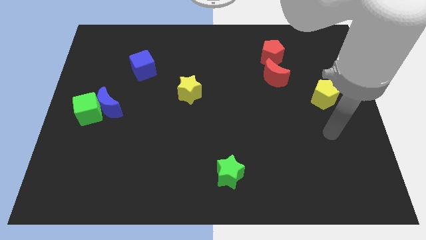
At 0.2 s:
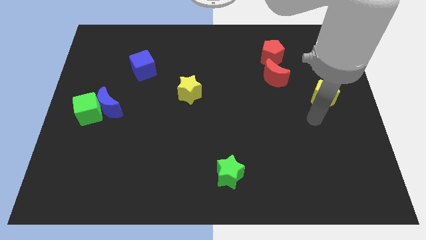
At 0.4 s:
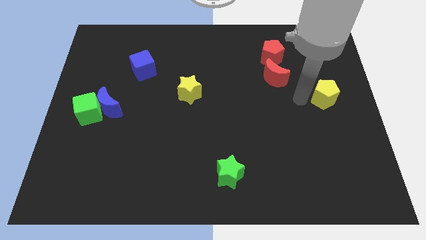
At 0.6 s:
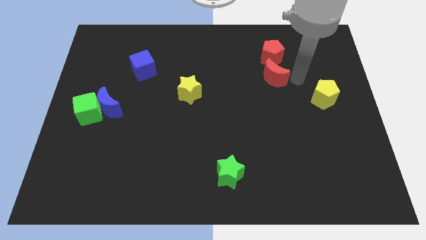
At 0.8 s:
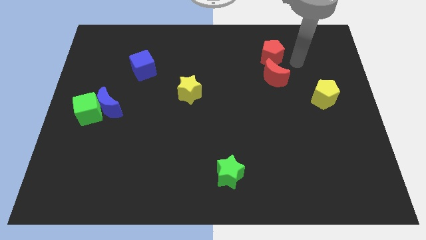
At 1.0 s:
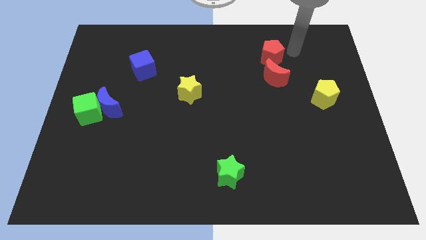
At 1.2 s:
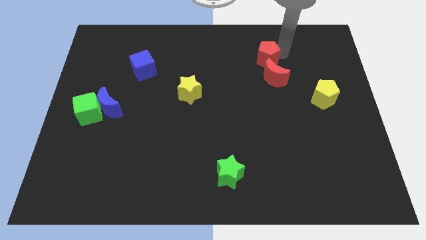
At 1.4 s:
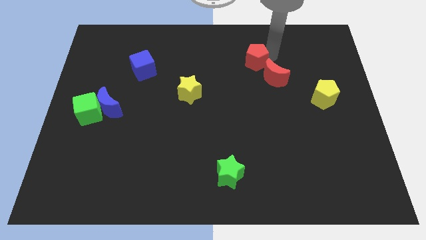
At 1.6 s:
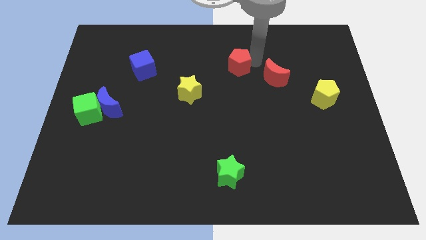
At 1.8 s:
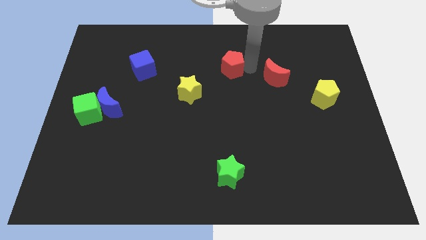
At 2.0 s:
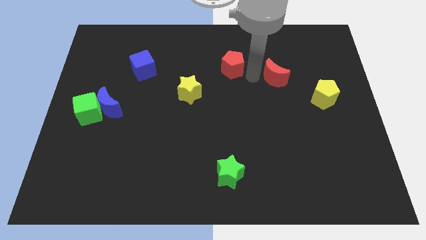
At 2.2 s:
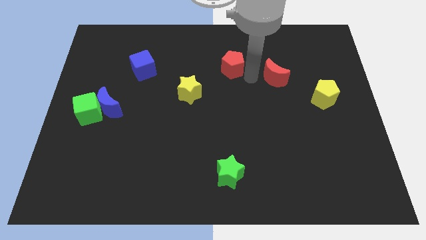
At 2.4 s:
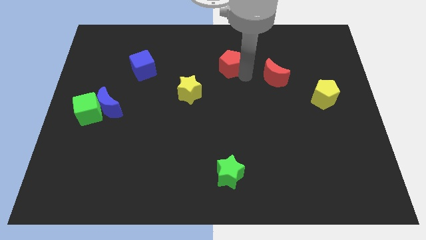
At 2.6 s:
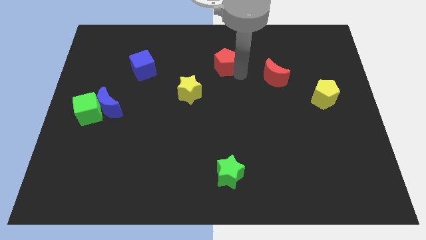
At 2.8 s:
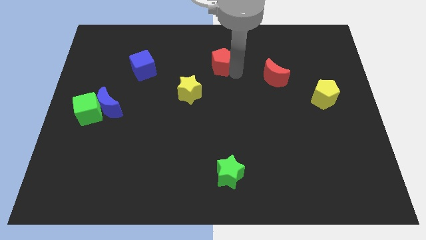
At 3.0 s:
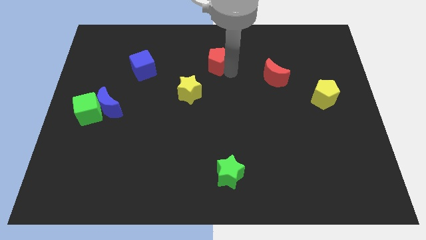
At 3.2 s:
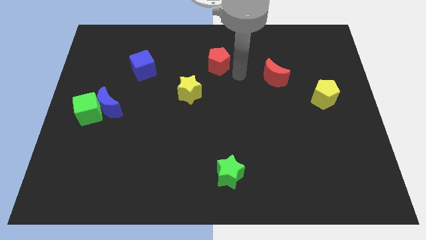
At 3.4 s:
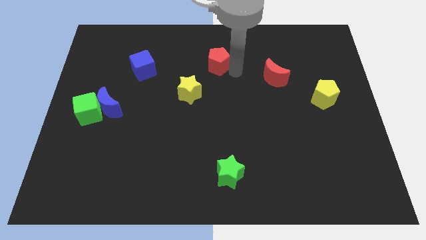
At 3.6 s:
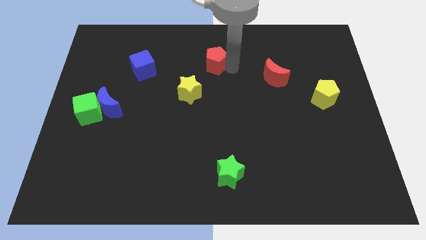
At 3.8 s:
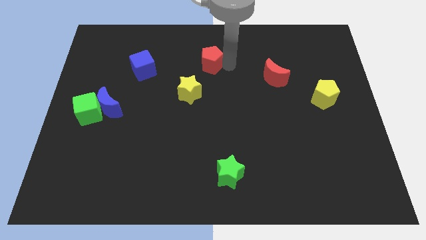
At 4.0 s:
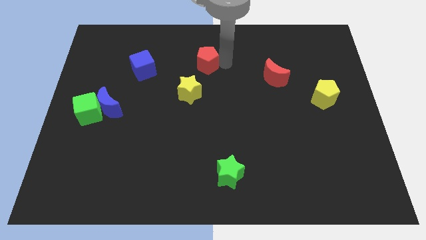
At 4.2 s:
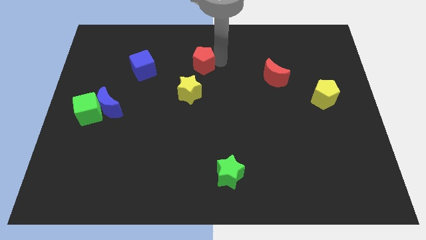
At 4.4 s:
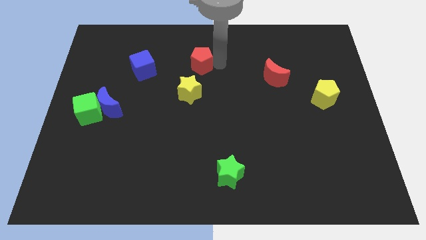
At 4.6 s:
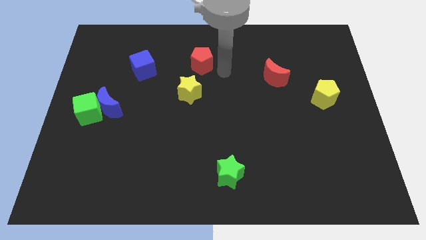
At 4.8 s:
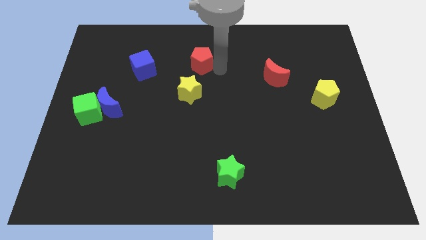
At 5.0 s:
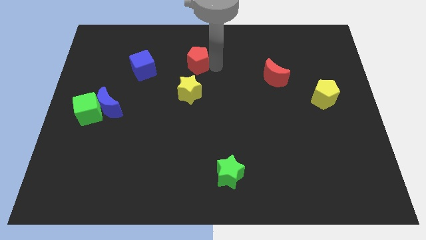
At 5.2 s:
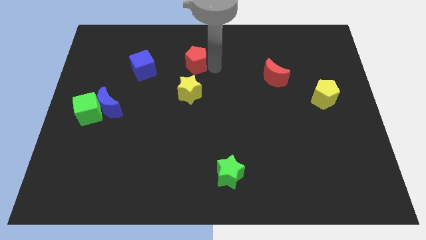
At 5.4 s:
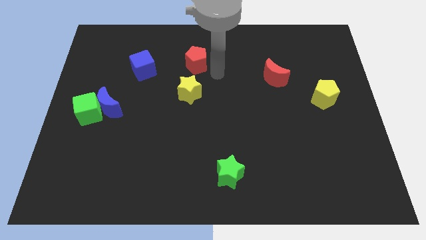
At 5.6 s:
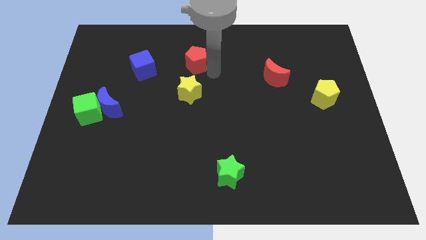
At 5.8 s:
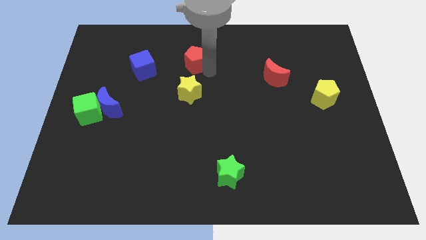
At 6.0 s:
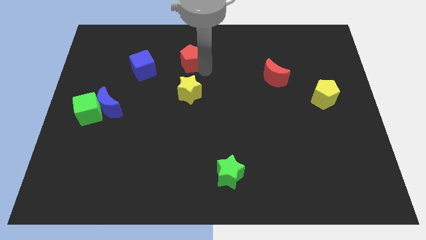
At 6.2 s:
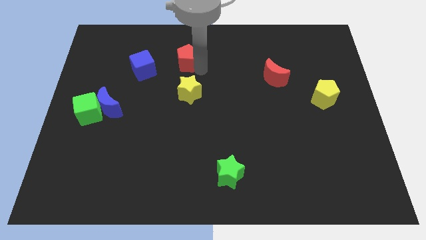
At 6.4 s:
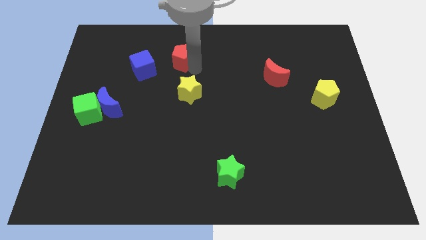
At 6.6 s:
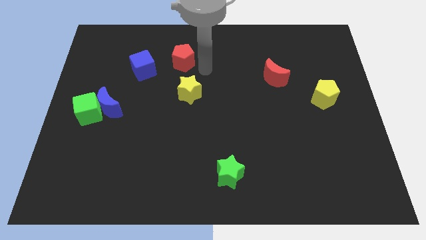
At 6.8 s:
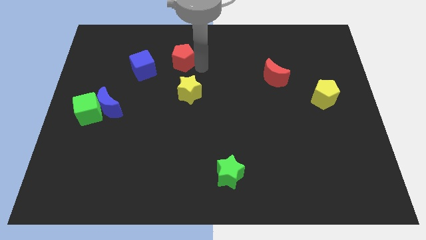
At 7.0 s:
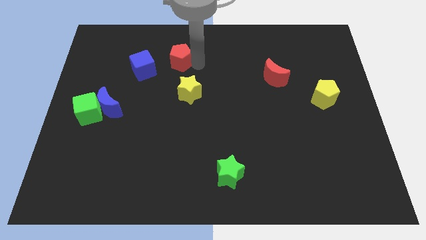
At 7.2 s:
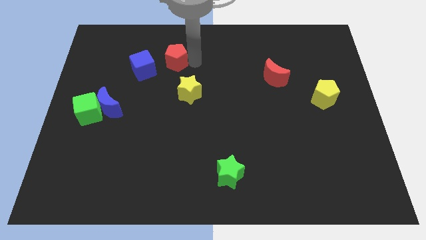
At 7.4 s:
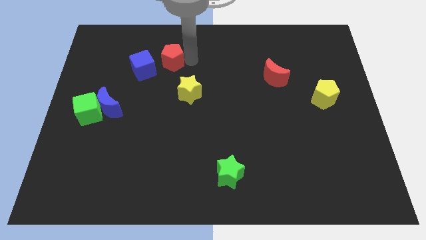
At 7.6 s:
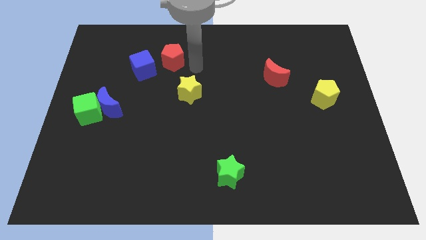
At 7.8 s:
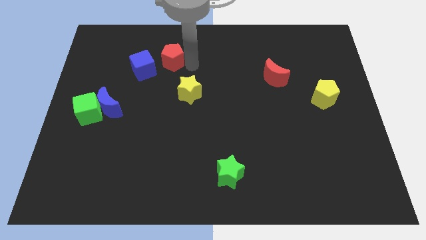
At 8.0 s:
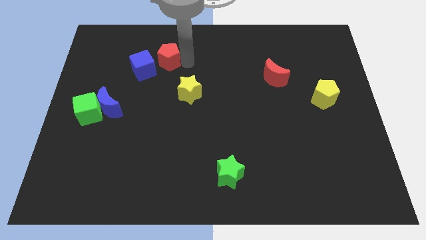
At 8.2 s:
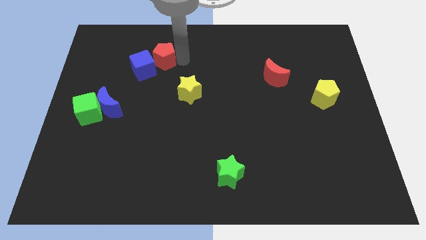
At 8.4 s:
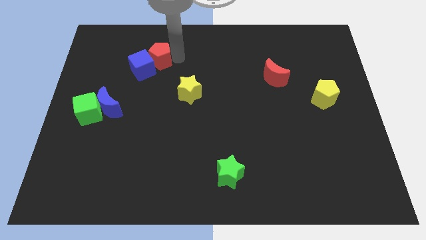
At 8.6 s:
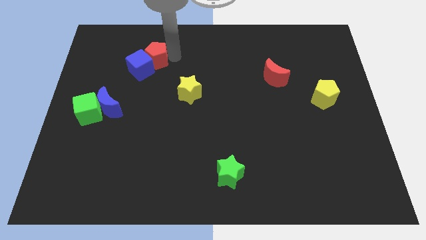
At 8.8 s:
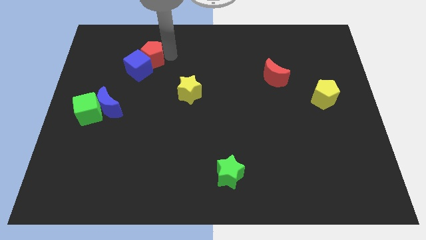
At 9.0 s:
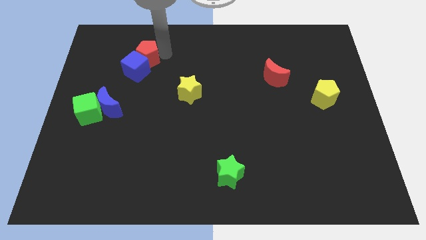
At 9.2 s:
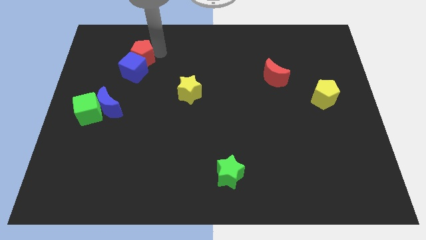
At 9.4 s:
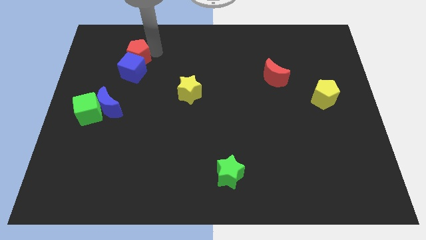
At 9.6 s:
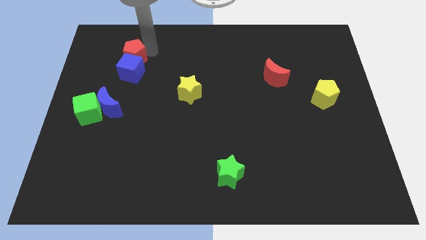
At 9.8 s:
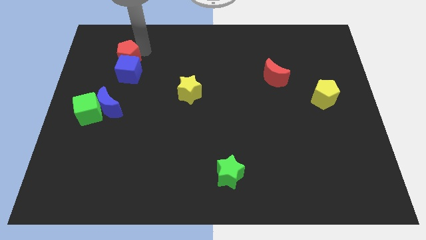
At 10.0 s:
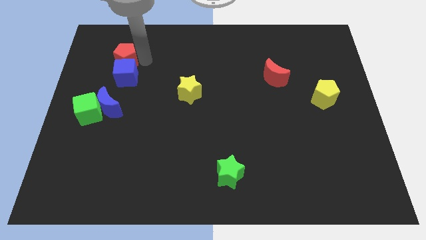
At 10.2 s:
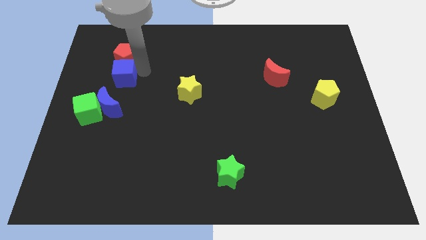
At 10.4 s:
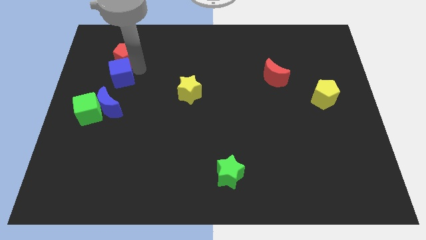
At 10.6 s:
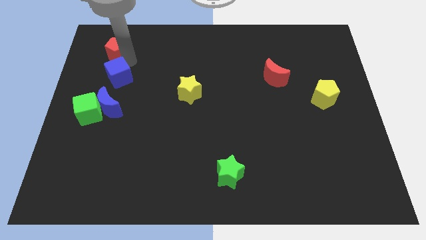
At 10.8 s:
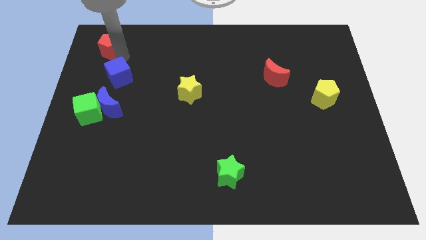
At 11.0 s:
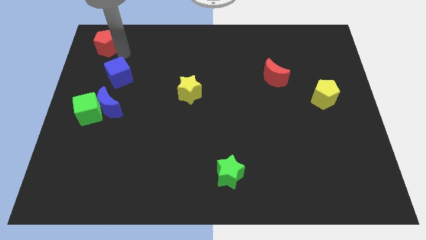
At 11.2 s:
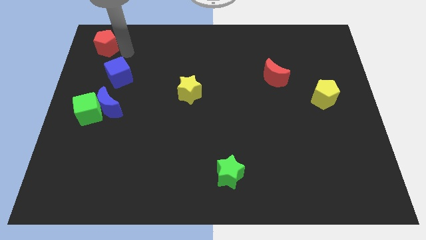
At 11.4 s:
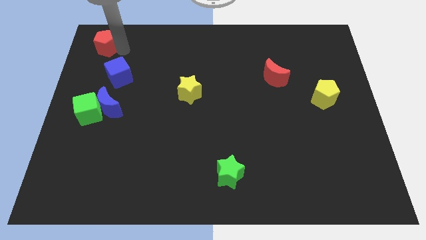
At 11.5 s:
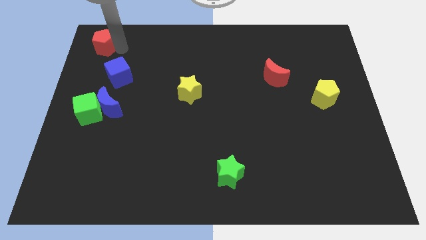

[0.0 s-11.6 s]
slide the red pentagon to the top left corner

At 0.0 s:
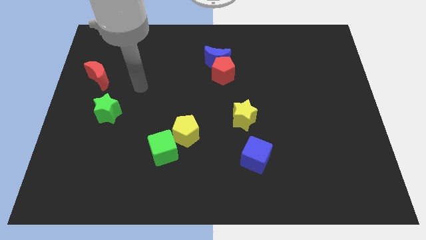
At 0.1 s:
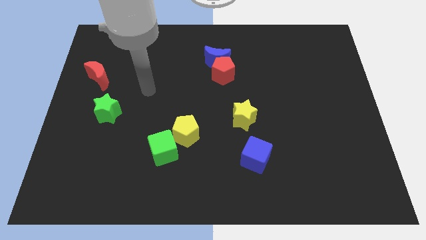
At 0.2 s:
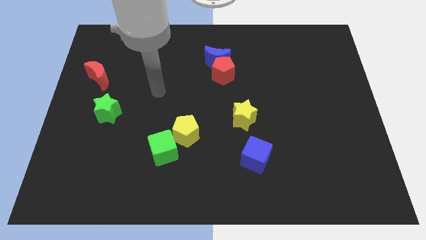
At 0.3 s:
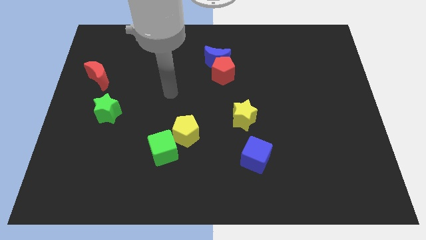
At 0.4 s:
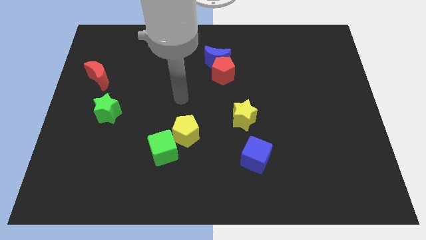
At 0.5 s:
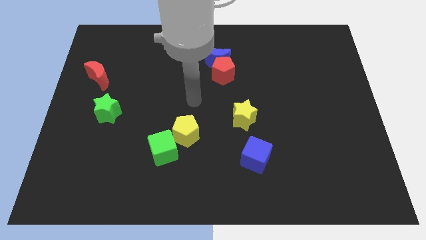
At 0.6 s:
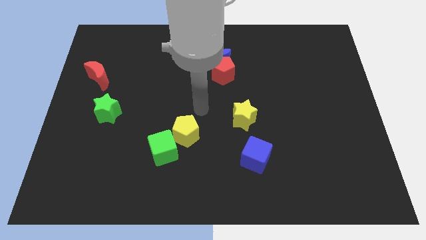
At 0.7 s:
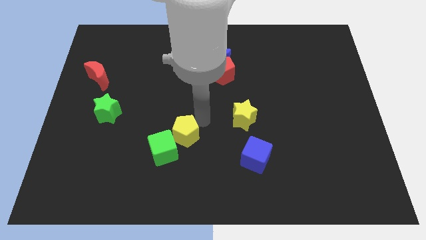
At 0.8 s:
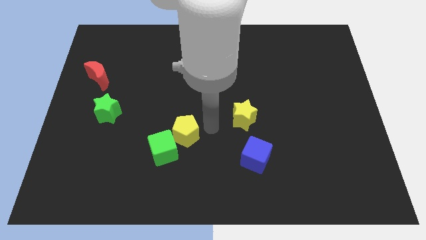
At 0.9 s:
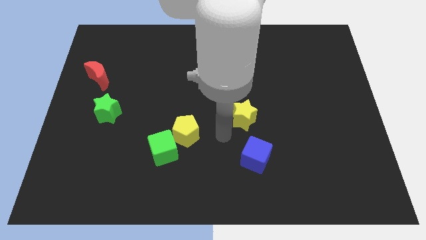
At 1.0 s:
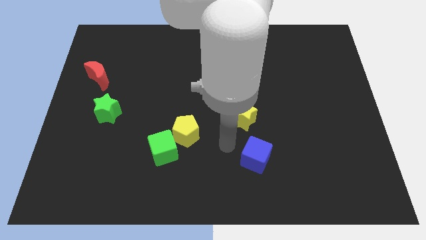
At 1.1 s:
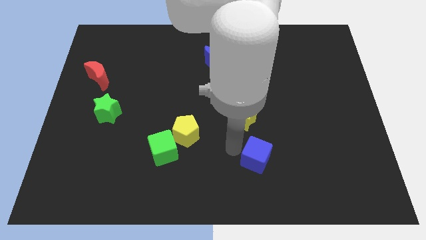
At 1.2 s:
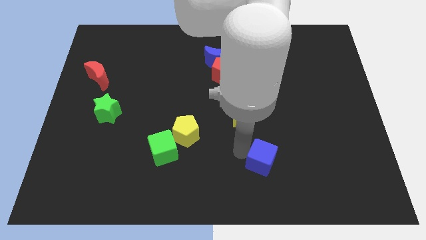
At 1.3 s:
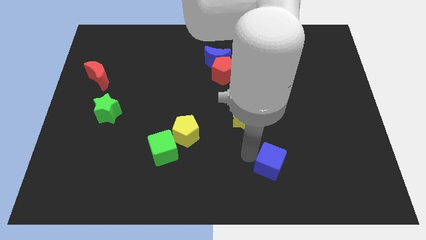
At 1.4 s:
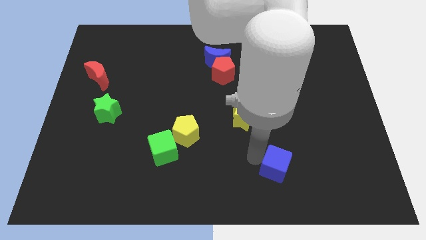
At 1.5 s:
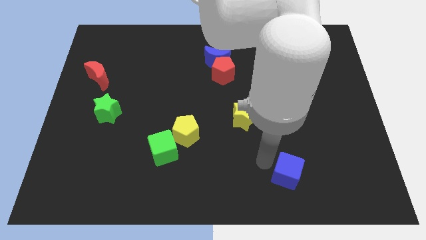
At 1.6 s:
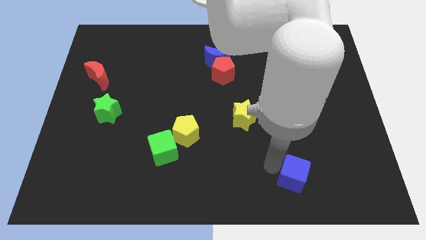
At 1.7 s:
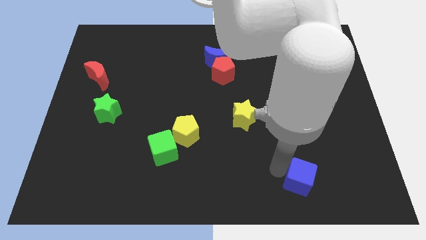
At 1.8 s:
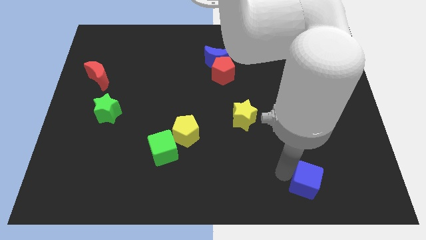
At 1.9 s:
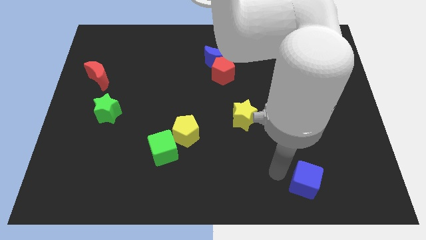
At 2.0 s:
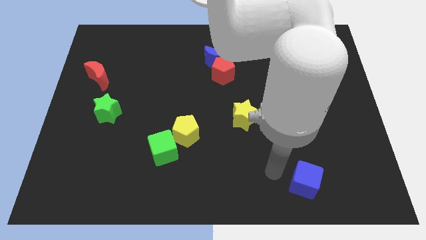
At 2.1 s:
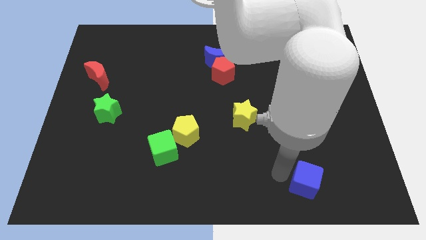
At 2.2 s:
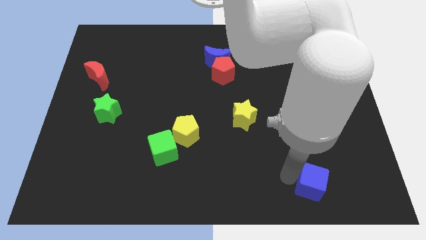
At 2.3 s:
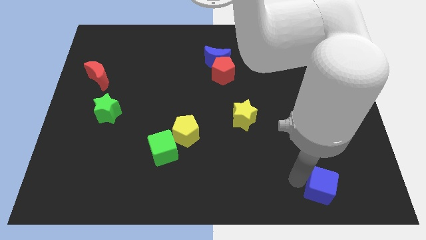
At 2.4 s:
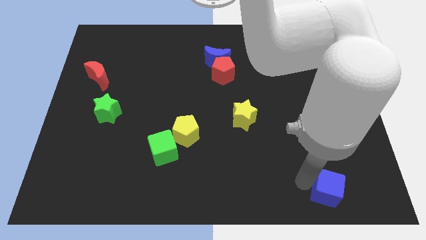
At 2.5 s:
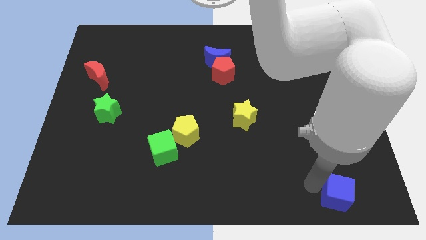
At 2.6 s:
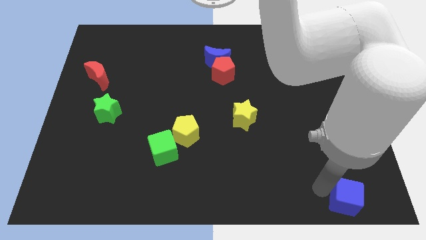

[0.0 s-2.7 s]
push the blue cube to the lower right corner
